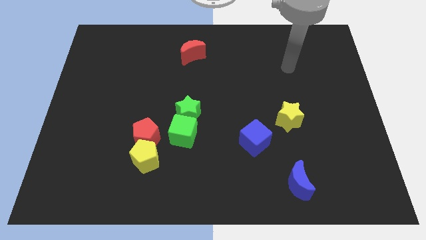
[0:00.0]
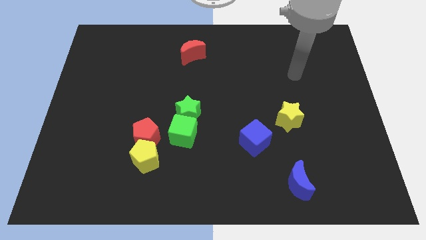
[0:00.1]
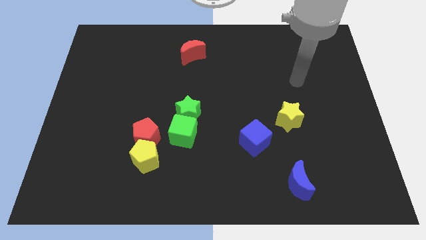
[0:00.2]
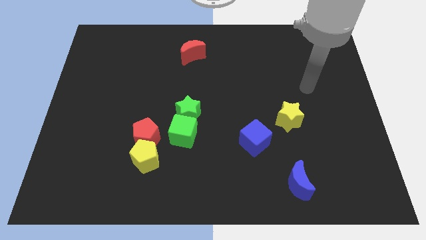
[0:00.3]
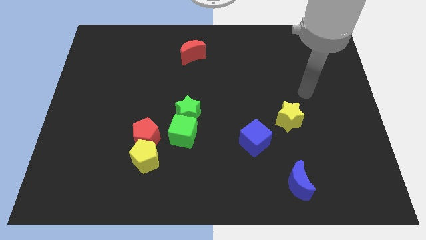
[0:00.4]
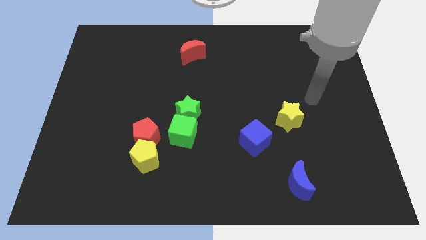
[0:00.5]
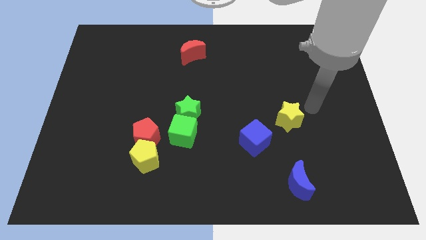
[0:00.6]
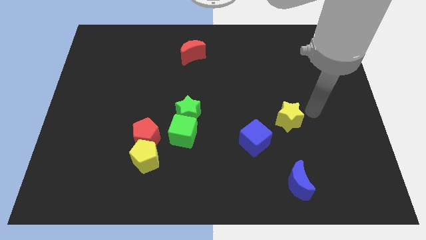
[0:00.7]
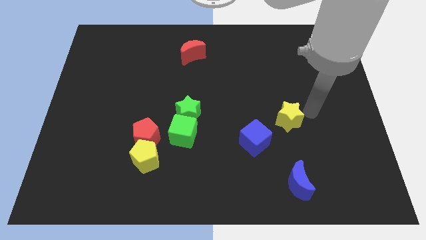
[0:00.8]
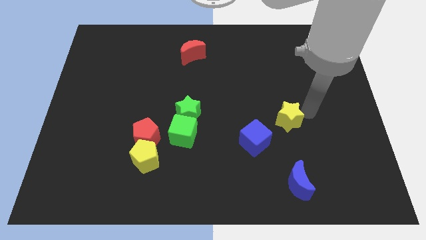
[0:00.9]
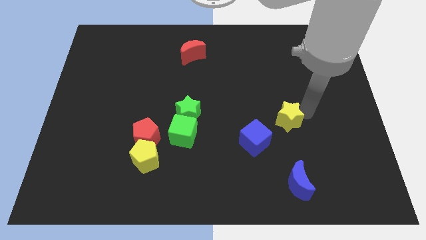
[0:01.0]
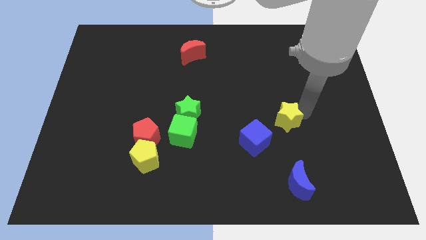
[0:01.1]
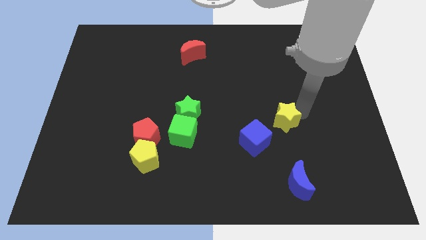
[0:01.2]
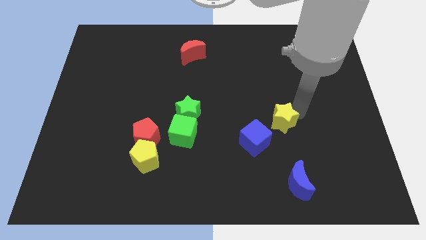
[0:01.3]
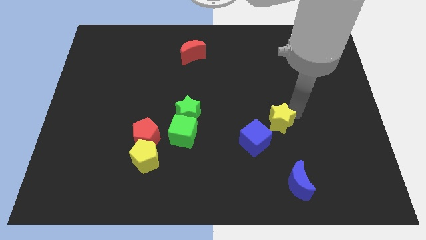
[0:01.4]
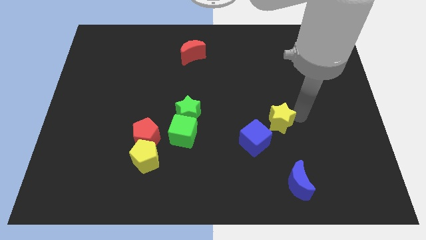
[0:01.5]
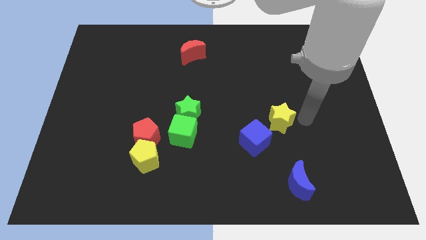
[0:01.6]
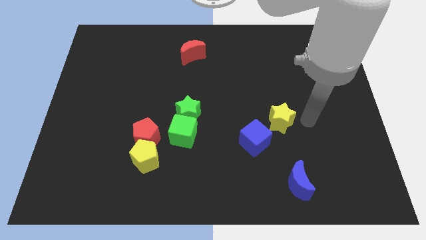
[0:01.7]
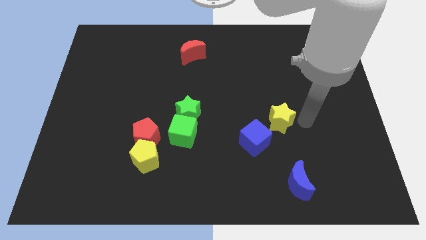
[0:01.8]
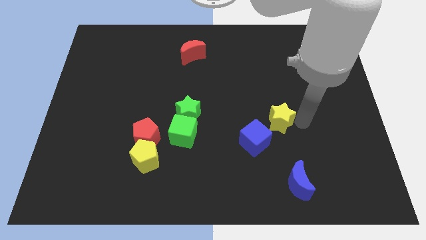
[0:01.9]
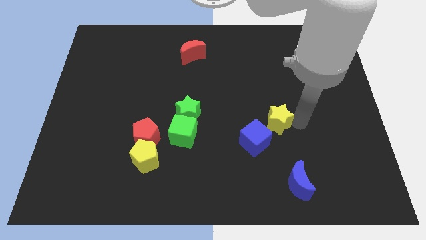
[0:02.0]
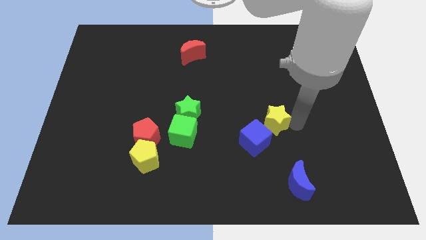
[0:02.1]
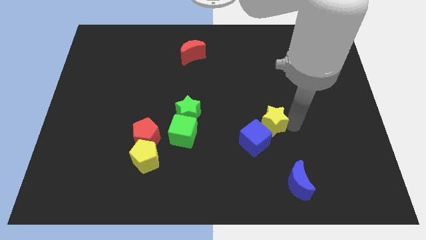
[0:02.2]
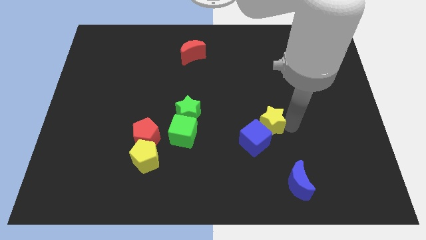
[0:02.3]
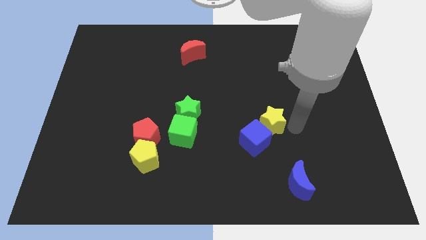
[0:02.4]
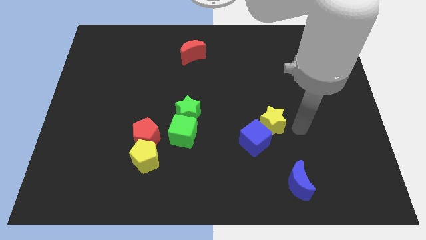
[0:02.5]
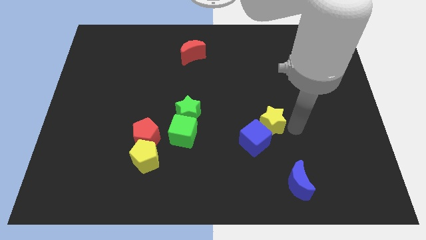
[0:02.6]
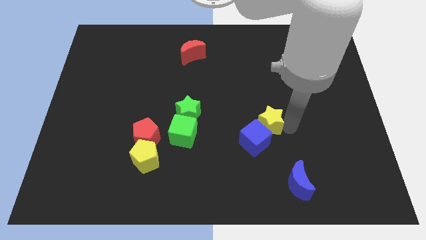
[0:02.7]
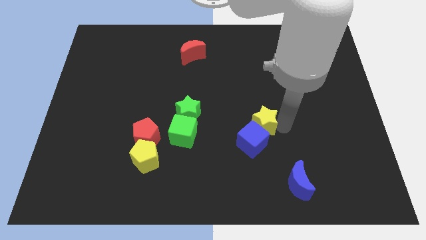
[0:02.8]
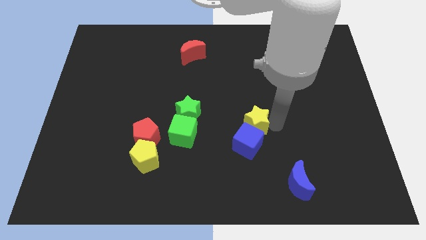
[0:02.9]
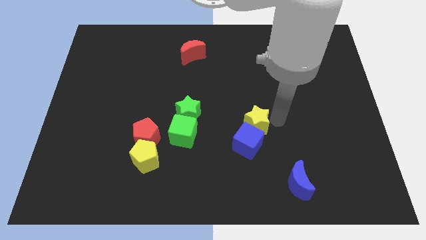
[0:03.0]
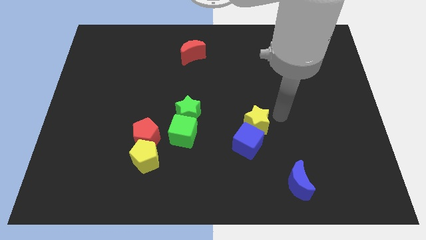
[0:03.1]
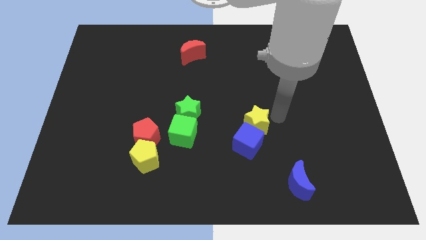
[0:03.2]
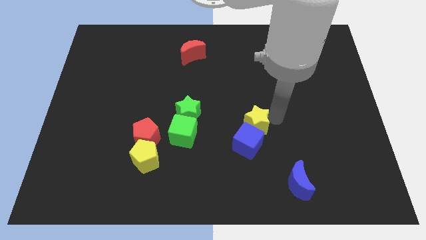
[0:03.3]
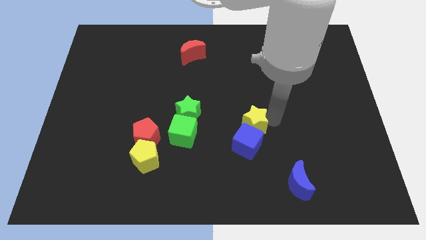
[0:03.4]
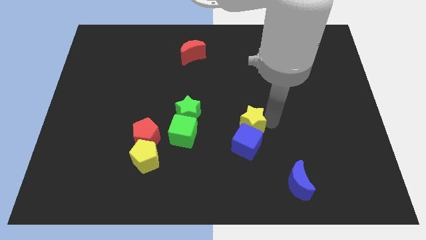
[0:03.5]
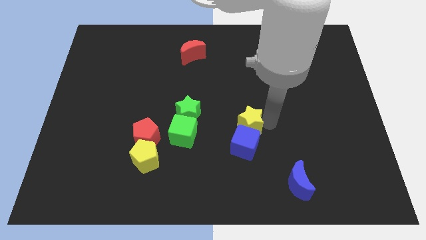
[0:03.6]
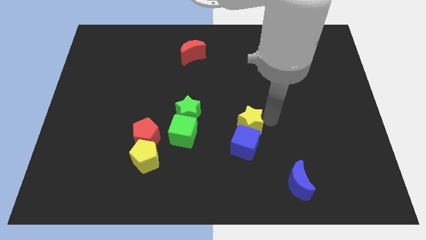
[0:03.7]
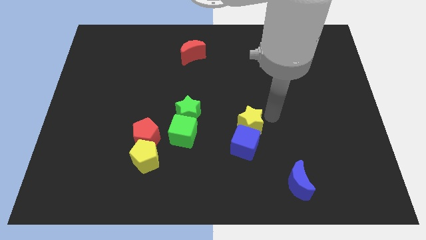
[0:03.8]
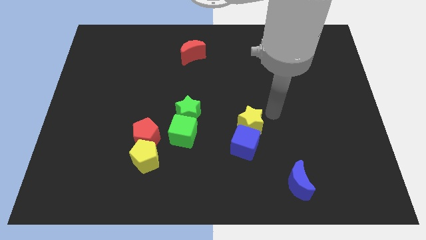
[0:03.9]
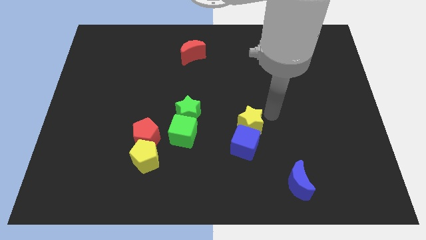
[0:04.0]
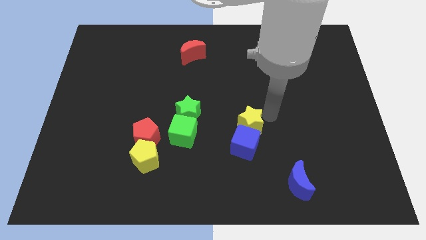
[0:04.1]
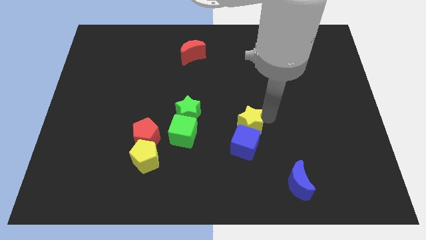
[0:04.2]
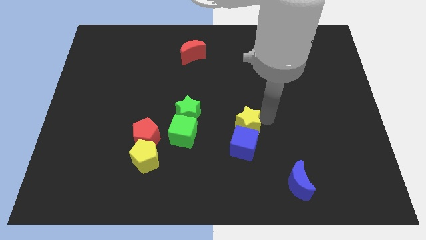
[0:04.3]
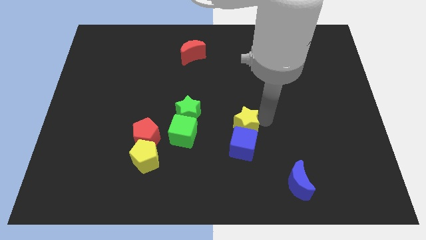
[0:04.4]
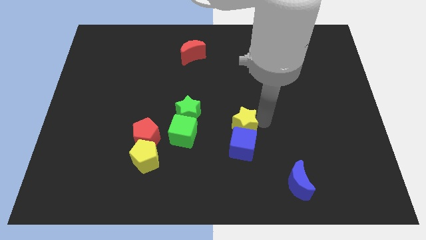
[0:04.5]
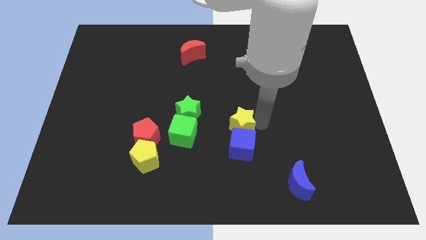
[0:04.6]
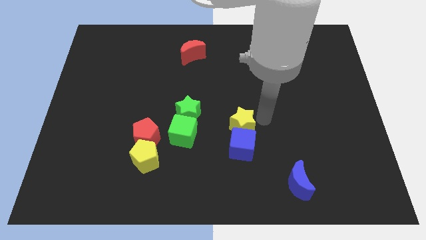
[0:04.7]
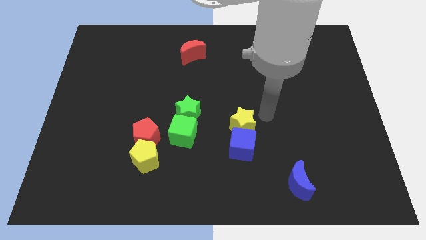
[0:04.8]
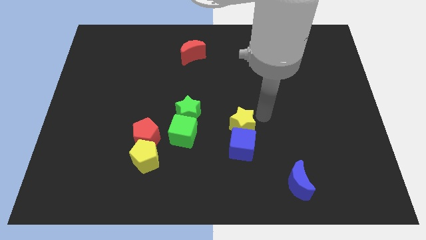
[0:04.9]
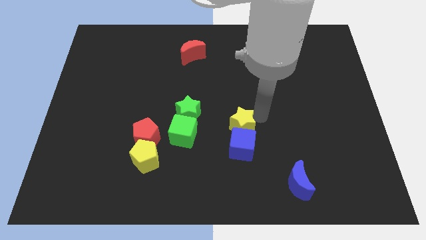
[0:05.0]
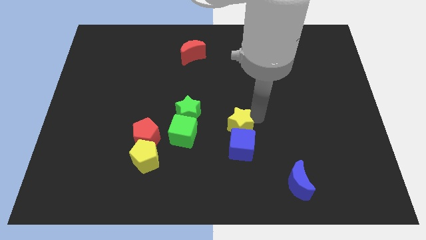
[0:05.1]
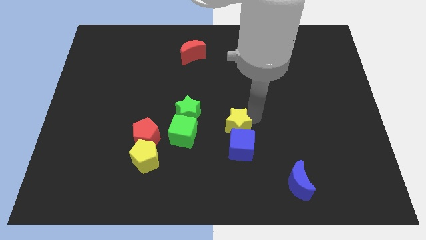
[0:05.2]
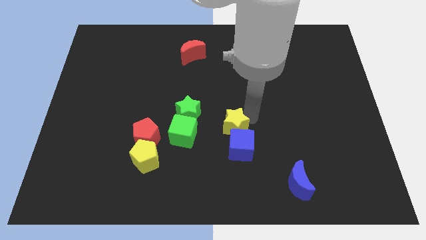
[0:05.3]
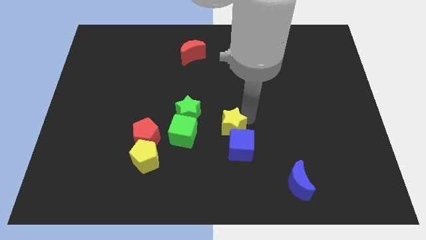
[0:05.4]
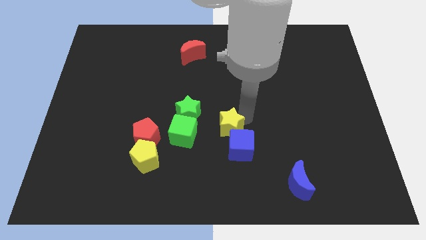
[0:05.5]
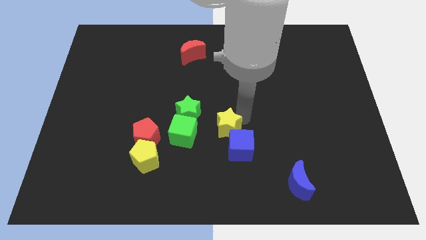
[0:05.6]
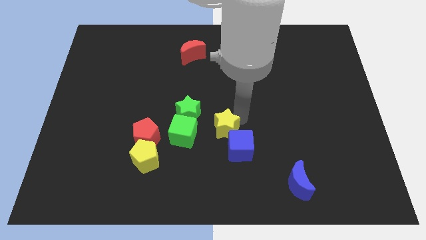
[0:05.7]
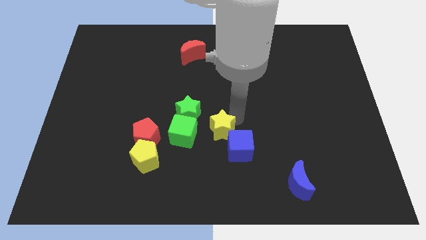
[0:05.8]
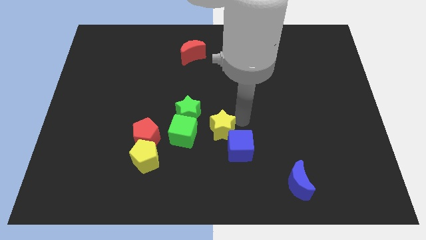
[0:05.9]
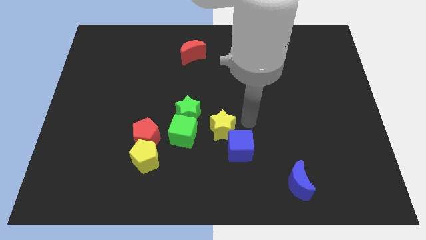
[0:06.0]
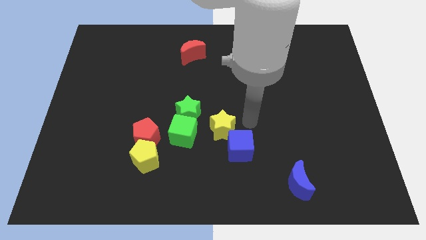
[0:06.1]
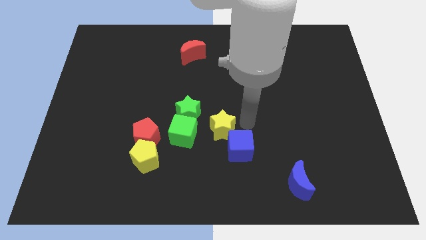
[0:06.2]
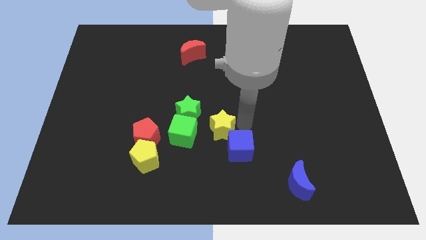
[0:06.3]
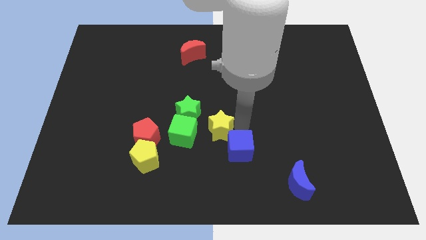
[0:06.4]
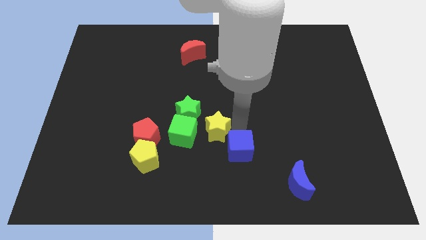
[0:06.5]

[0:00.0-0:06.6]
move the yellow star to the right of the red pentagon
